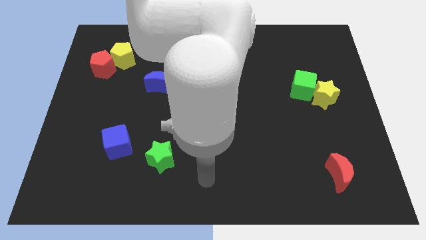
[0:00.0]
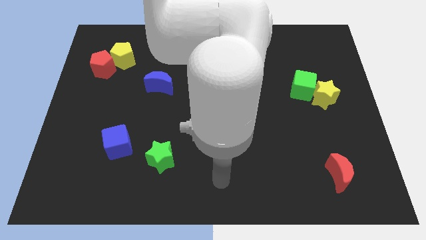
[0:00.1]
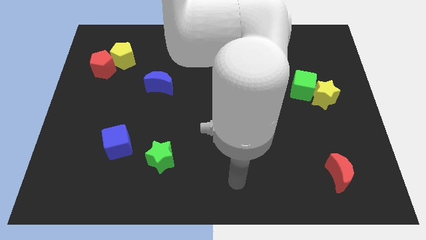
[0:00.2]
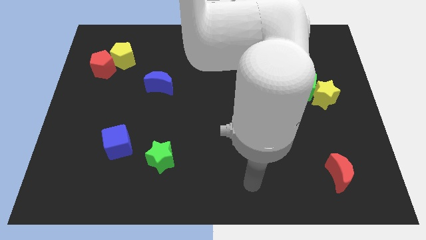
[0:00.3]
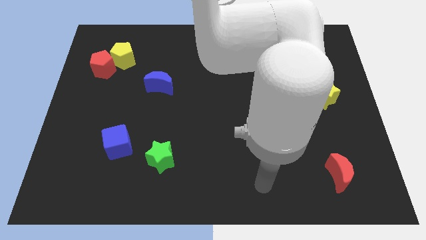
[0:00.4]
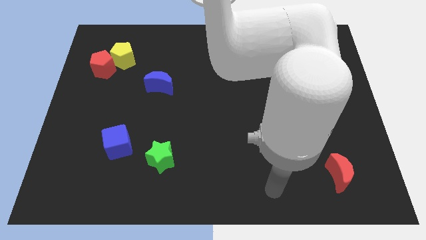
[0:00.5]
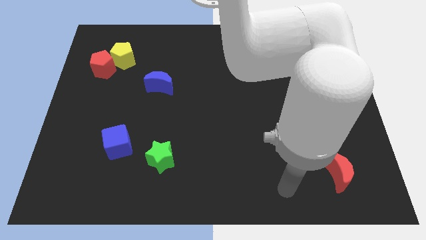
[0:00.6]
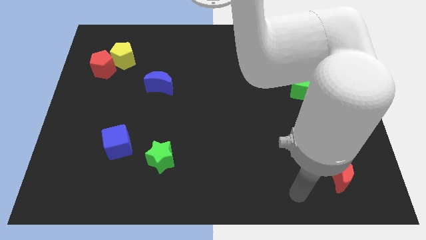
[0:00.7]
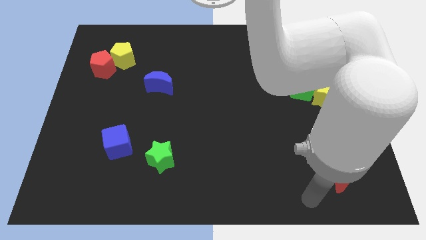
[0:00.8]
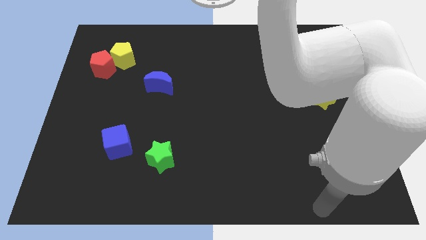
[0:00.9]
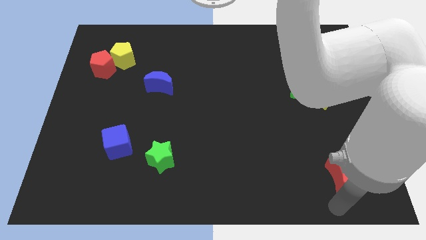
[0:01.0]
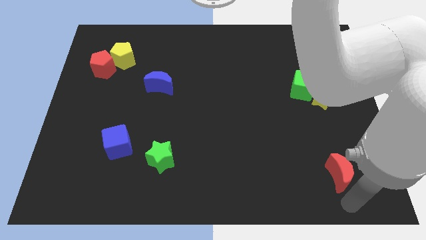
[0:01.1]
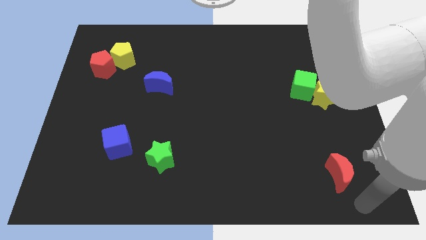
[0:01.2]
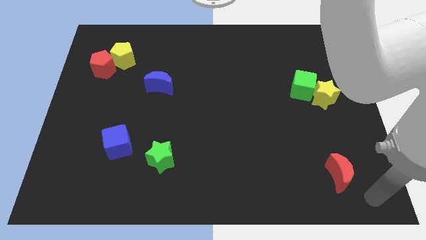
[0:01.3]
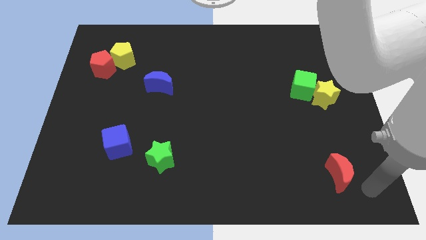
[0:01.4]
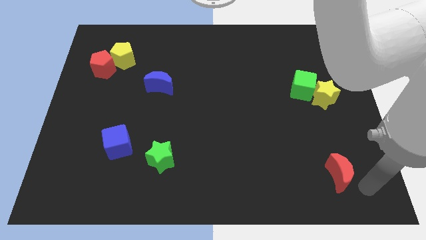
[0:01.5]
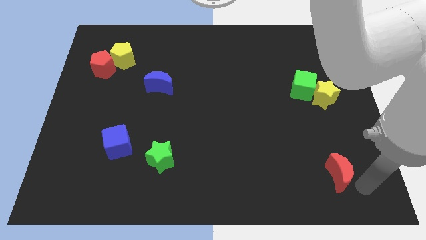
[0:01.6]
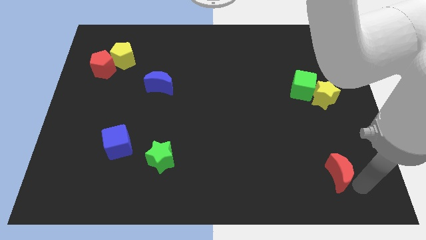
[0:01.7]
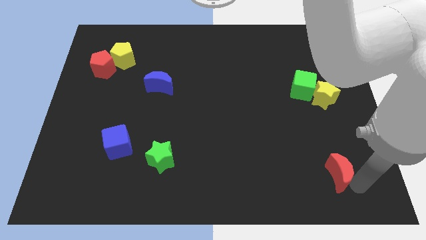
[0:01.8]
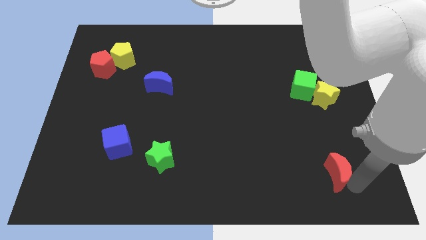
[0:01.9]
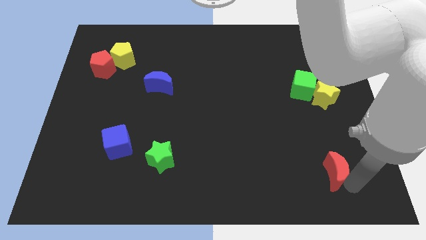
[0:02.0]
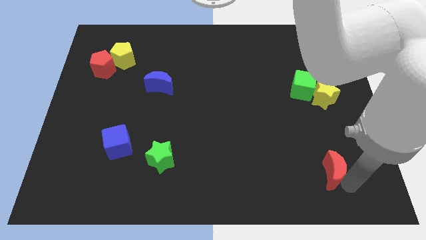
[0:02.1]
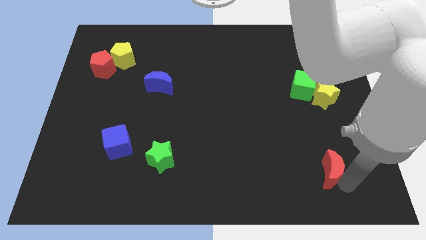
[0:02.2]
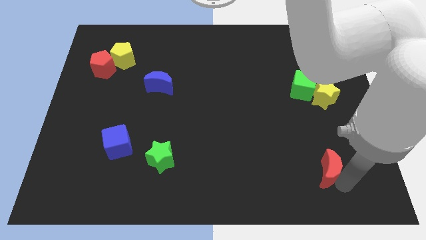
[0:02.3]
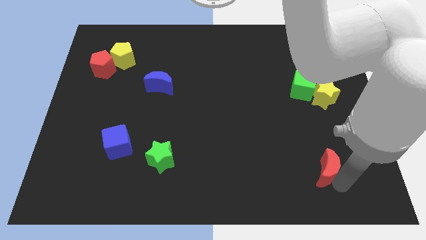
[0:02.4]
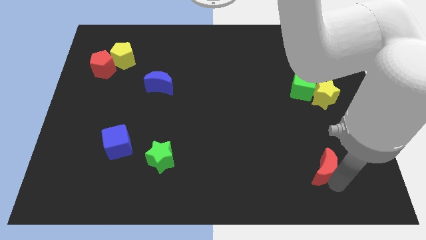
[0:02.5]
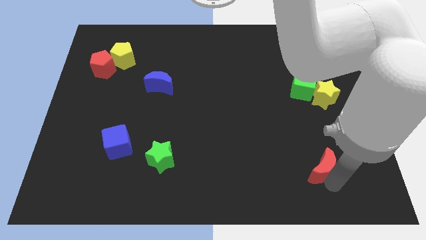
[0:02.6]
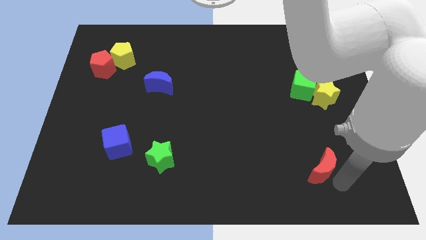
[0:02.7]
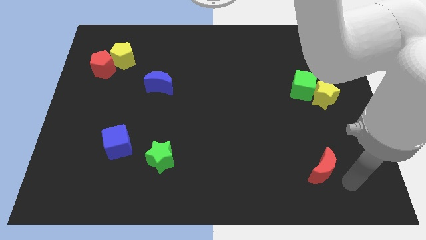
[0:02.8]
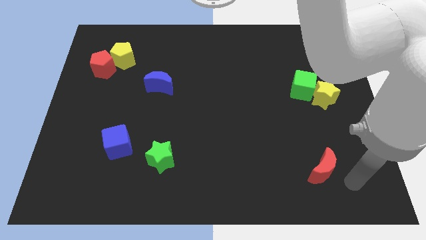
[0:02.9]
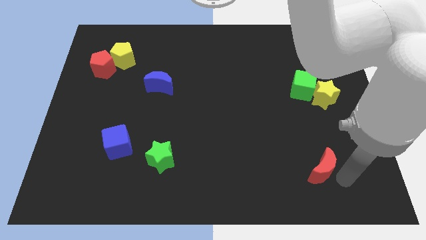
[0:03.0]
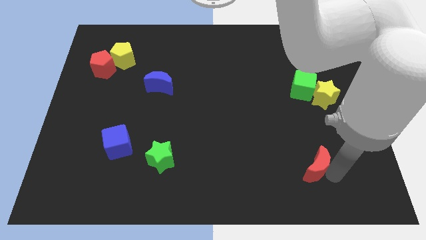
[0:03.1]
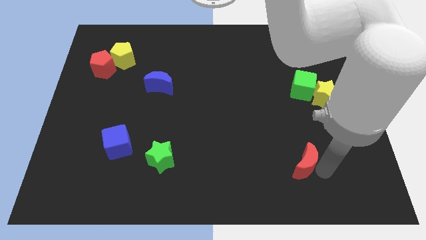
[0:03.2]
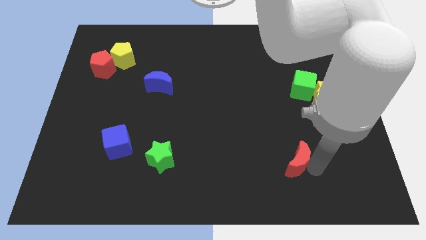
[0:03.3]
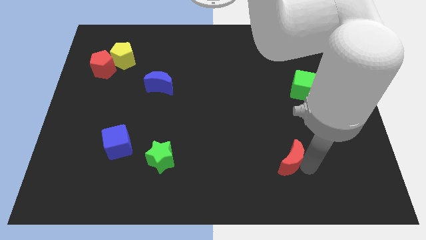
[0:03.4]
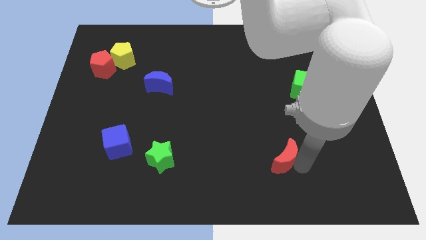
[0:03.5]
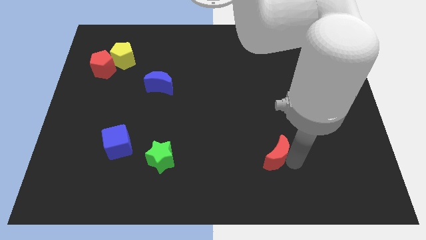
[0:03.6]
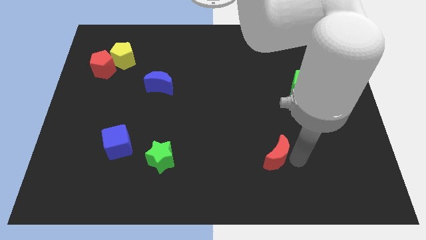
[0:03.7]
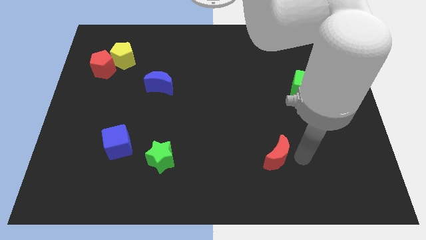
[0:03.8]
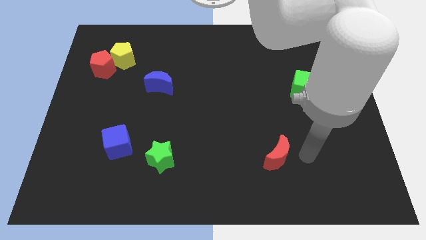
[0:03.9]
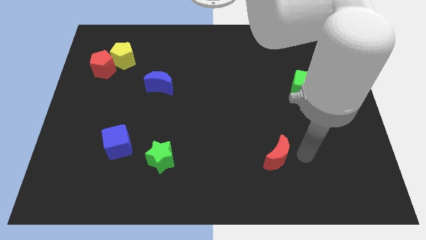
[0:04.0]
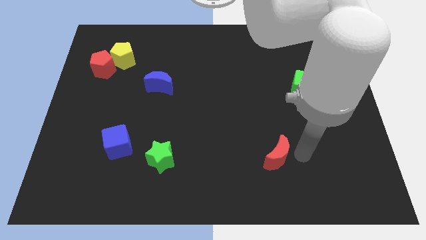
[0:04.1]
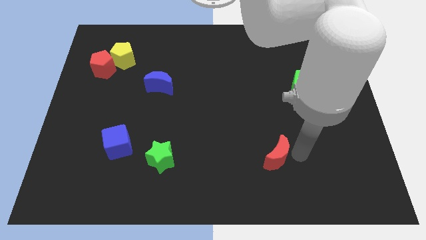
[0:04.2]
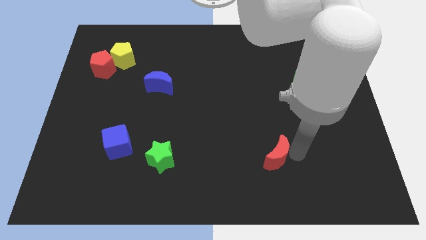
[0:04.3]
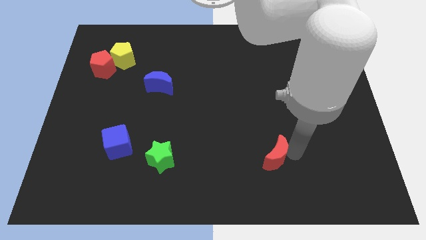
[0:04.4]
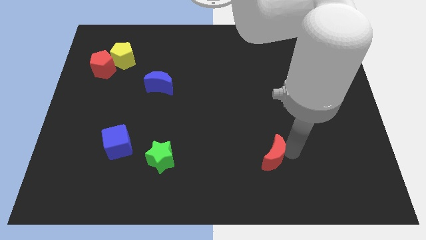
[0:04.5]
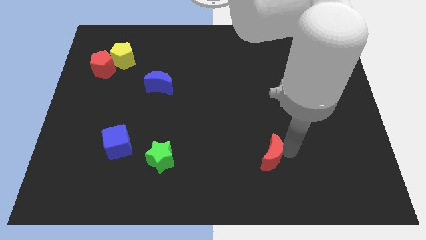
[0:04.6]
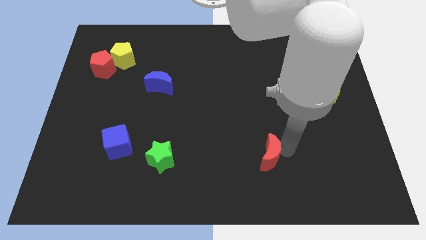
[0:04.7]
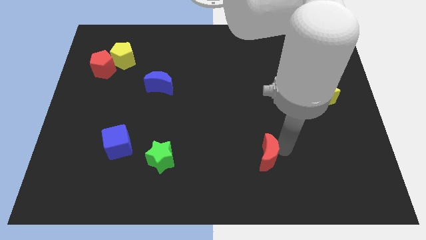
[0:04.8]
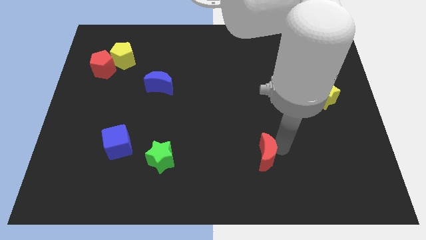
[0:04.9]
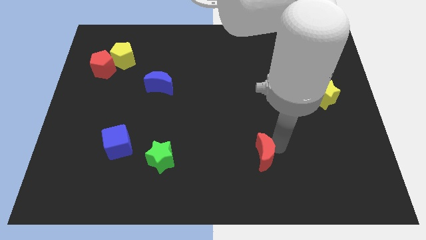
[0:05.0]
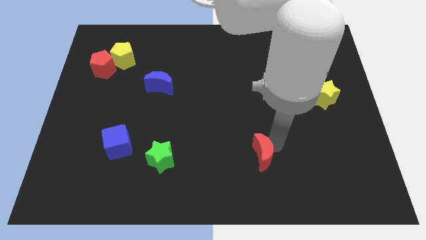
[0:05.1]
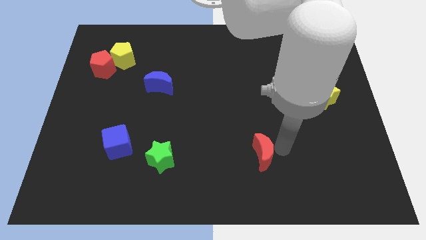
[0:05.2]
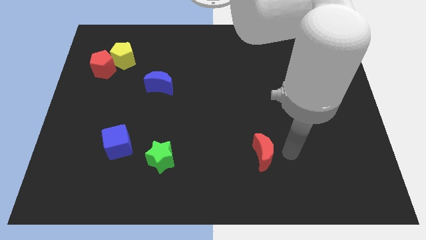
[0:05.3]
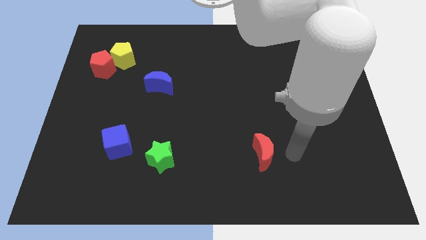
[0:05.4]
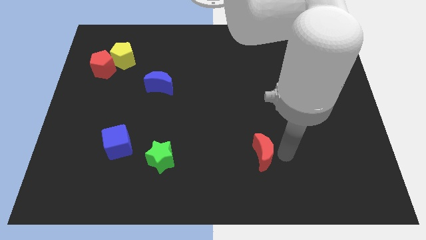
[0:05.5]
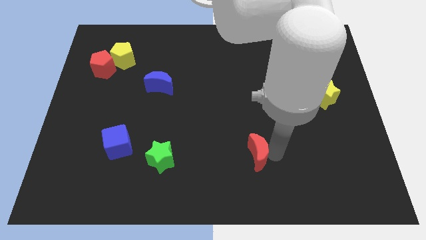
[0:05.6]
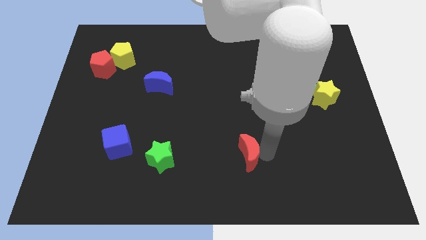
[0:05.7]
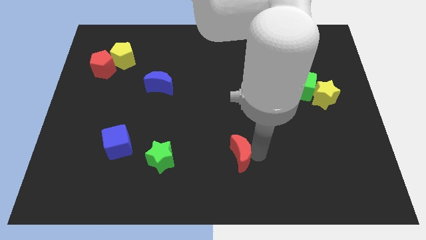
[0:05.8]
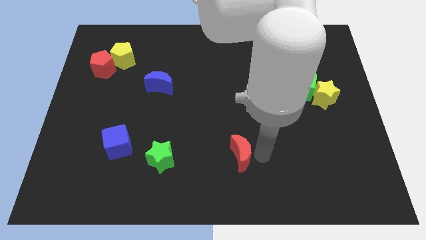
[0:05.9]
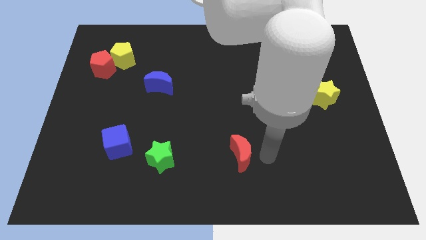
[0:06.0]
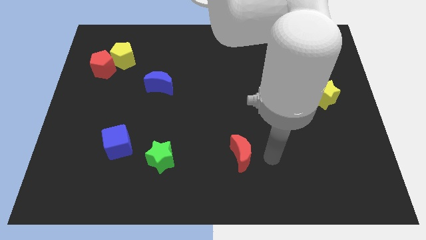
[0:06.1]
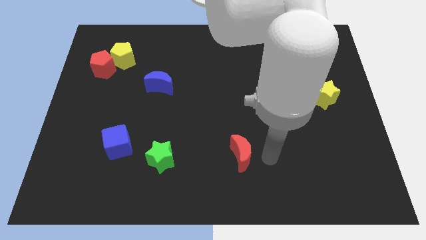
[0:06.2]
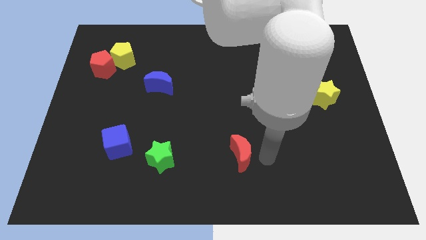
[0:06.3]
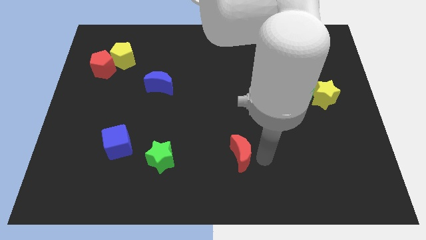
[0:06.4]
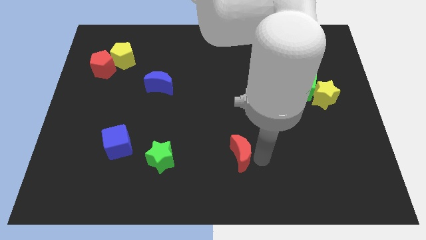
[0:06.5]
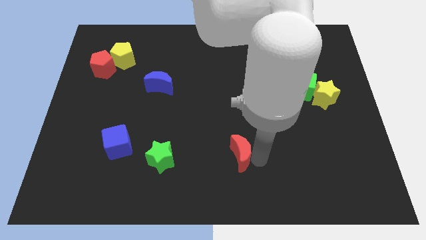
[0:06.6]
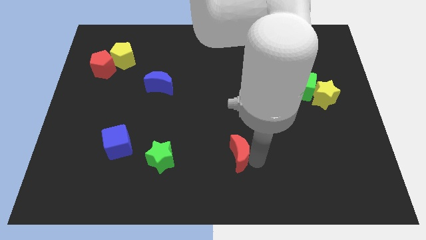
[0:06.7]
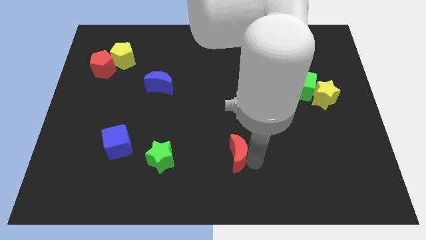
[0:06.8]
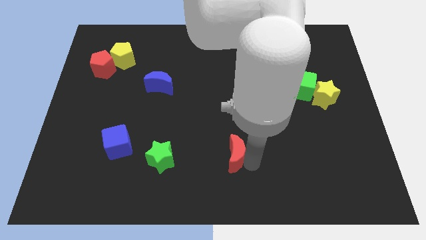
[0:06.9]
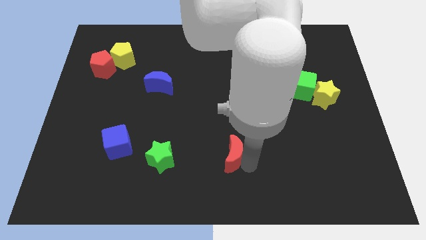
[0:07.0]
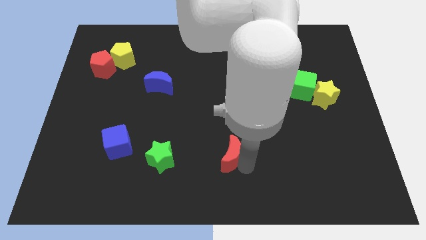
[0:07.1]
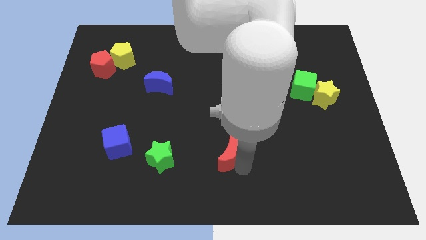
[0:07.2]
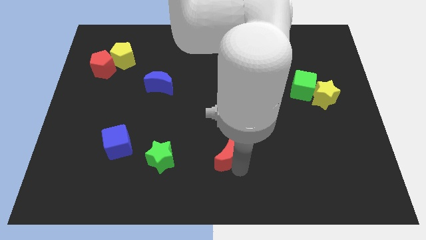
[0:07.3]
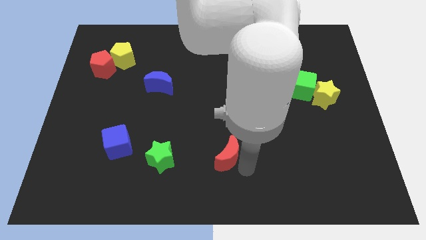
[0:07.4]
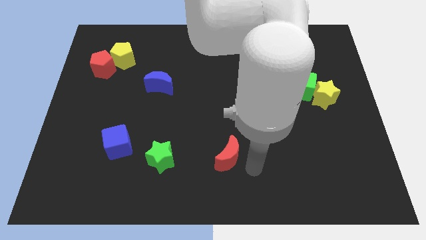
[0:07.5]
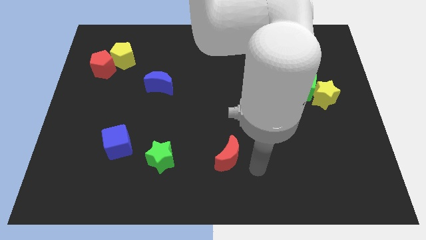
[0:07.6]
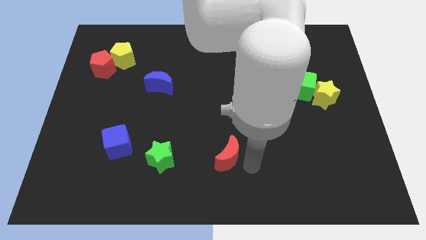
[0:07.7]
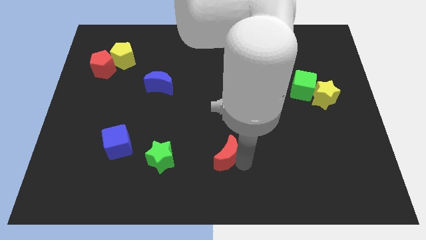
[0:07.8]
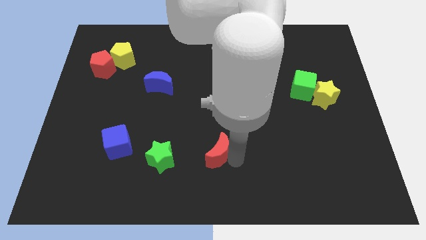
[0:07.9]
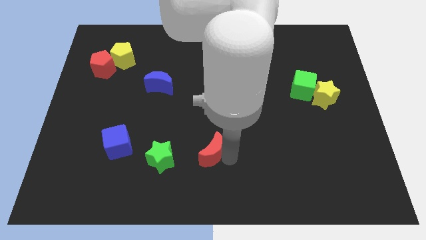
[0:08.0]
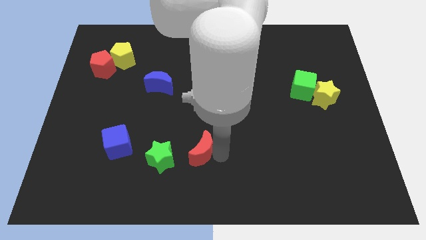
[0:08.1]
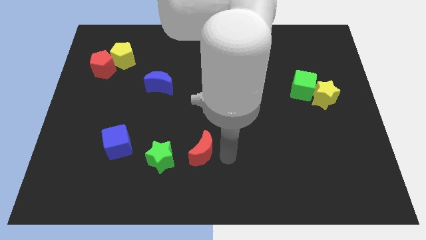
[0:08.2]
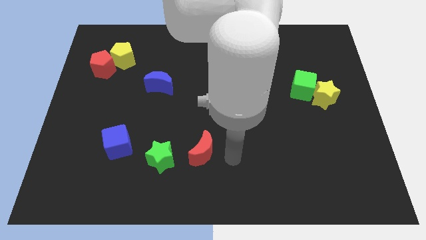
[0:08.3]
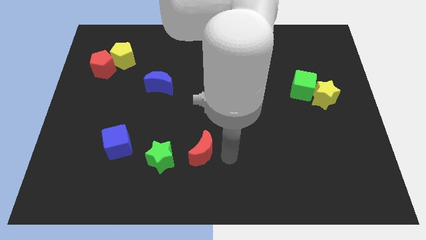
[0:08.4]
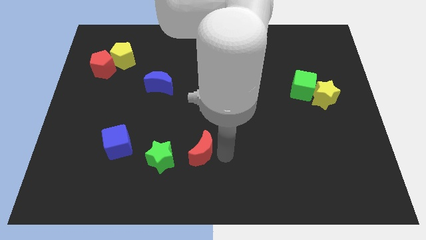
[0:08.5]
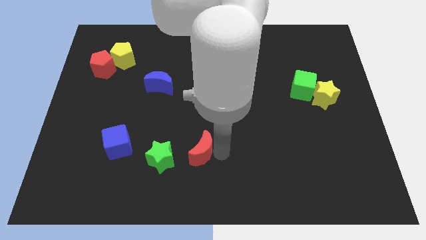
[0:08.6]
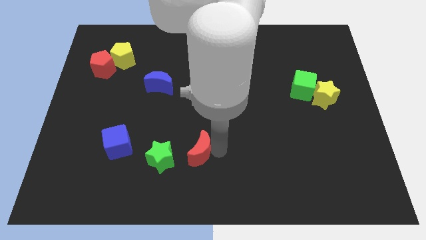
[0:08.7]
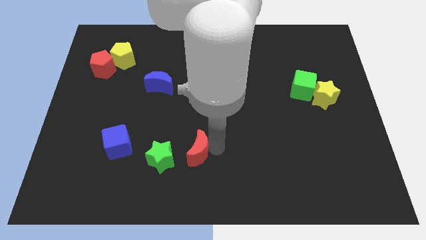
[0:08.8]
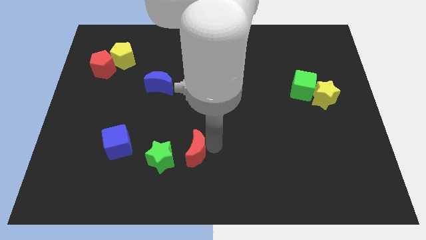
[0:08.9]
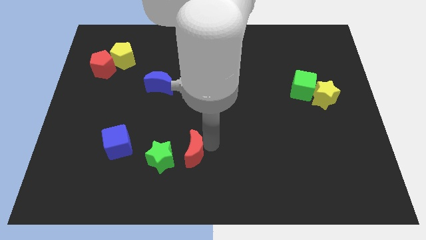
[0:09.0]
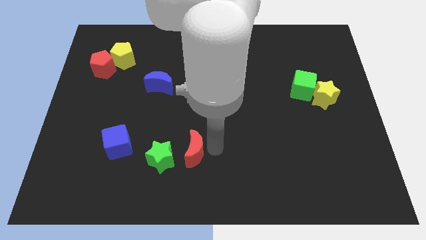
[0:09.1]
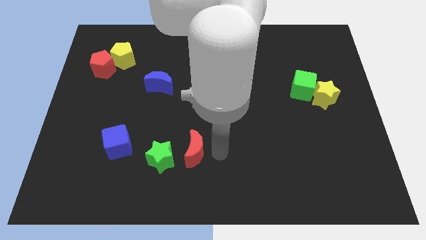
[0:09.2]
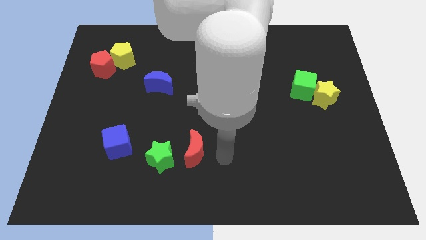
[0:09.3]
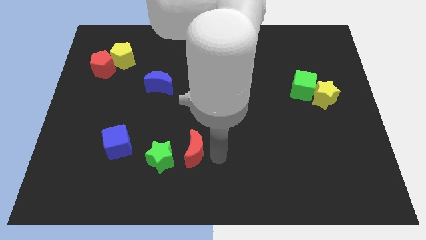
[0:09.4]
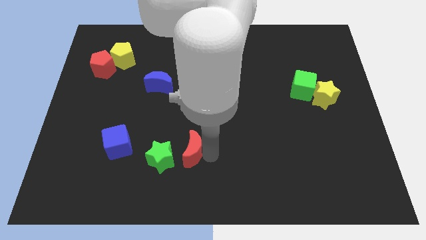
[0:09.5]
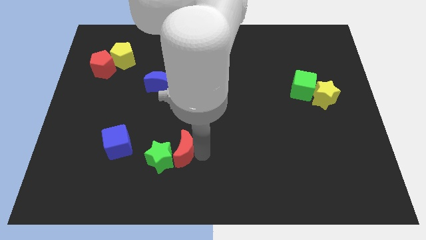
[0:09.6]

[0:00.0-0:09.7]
slide the red moon just right of the blue cube
